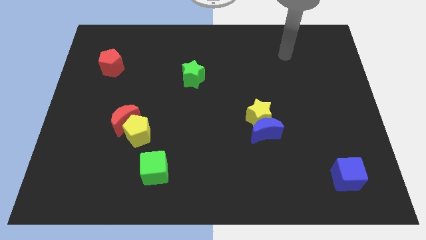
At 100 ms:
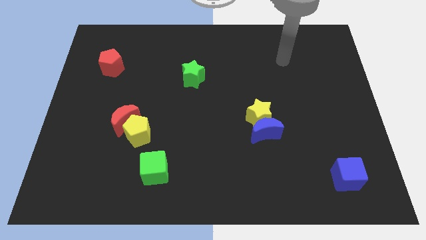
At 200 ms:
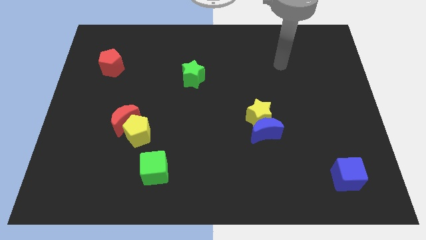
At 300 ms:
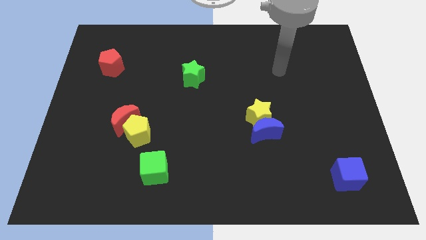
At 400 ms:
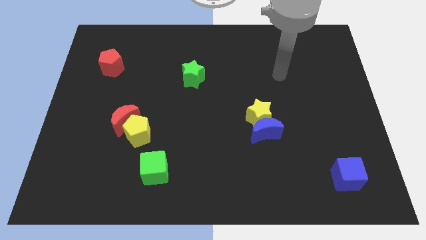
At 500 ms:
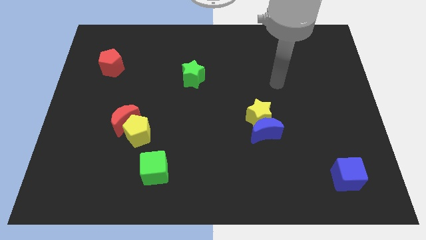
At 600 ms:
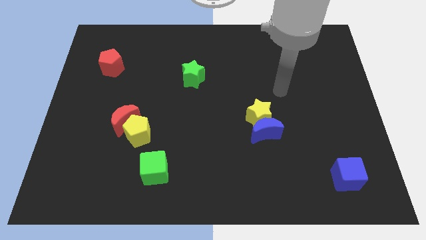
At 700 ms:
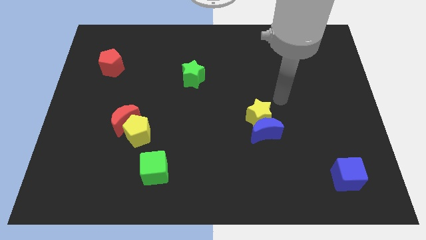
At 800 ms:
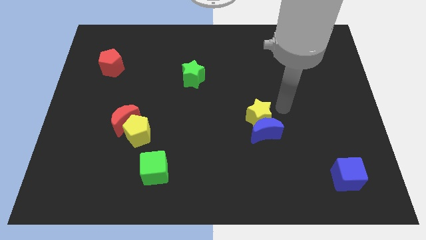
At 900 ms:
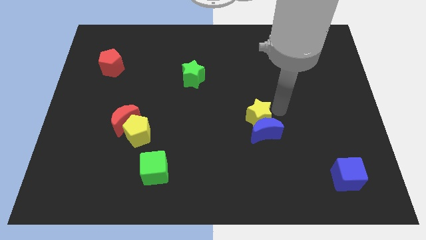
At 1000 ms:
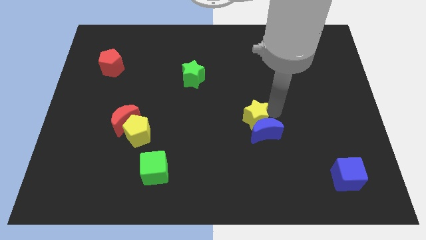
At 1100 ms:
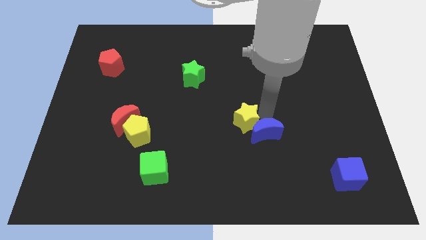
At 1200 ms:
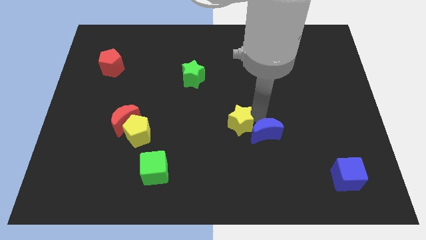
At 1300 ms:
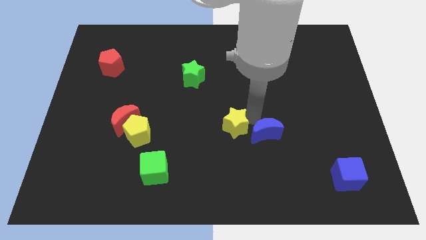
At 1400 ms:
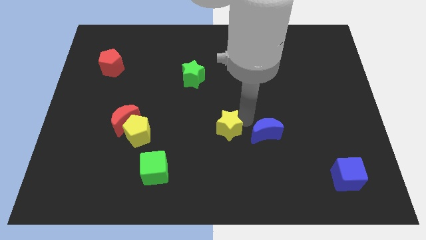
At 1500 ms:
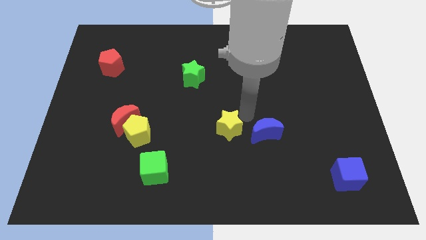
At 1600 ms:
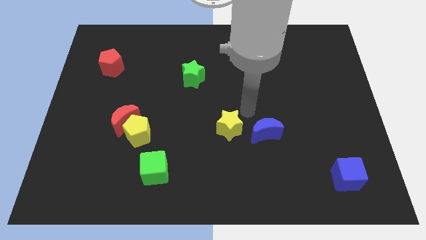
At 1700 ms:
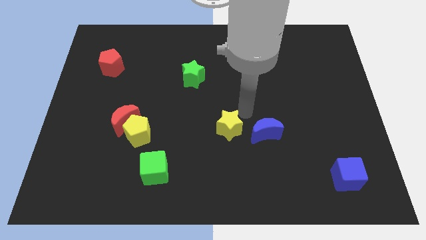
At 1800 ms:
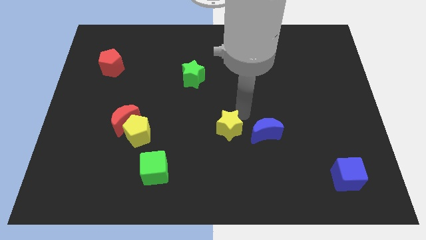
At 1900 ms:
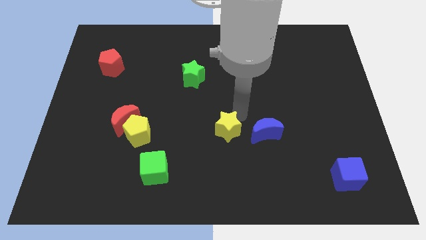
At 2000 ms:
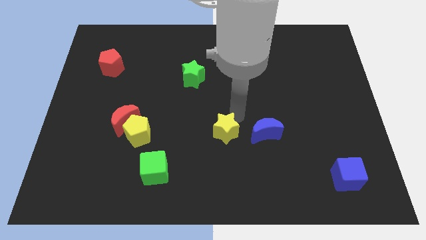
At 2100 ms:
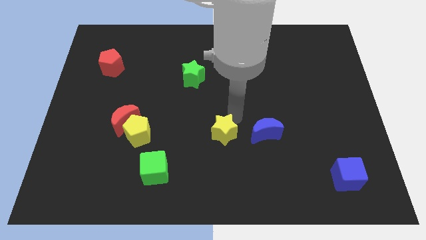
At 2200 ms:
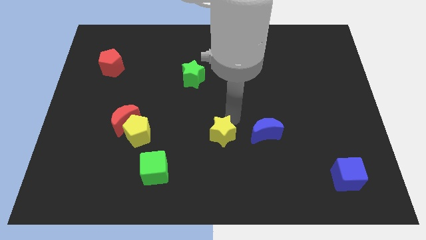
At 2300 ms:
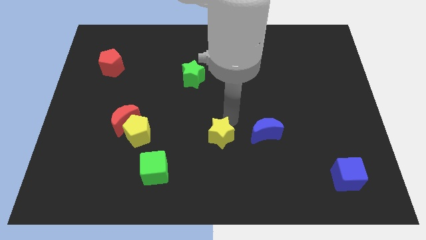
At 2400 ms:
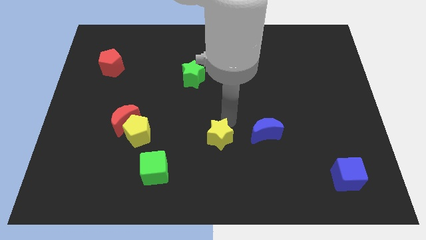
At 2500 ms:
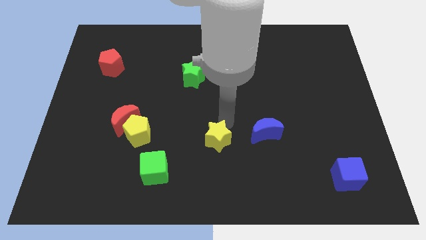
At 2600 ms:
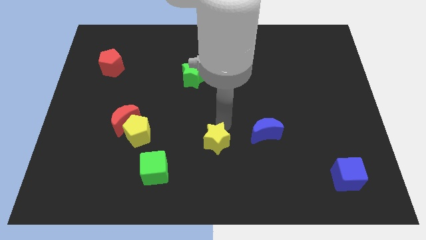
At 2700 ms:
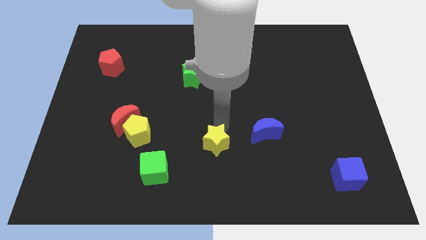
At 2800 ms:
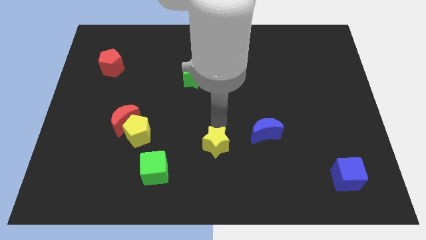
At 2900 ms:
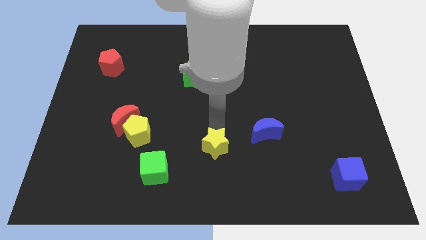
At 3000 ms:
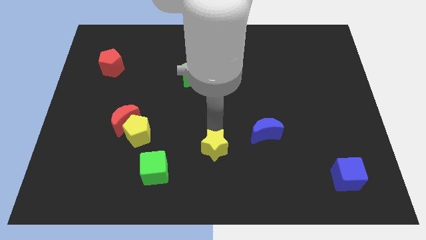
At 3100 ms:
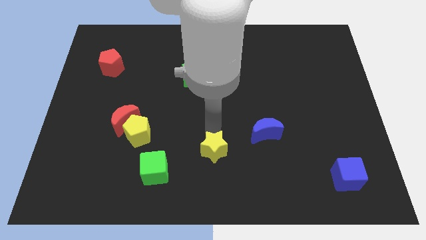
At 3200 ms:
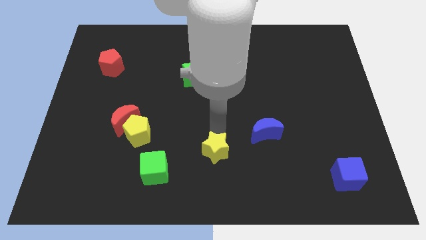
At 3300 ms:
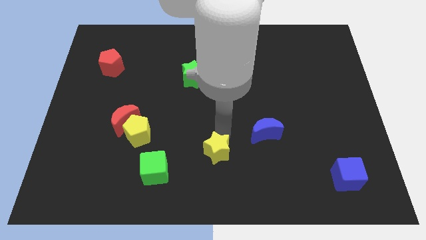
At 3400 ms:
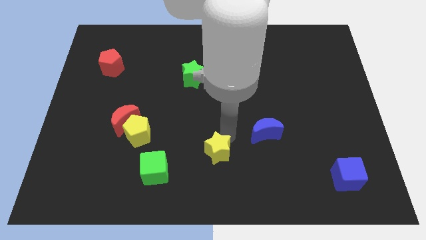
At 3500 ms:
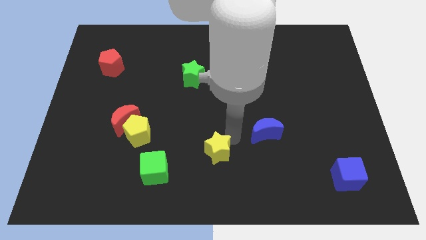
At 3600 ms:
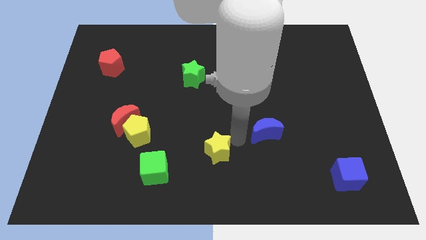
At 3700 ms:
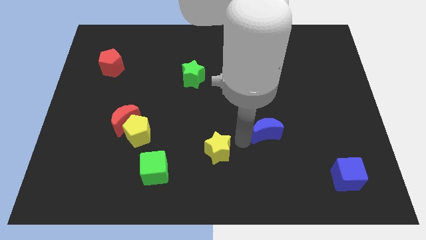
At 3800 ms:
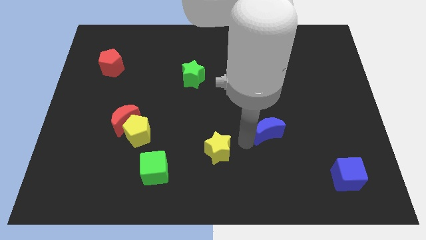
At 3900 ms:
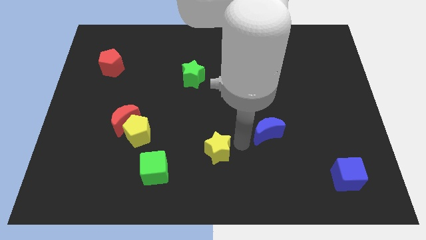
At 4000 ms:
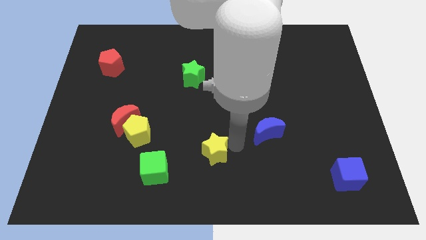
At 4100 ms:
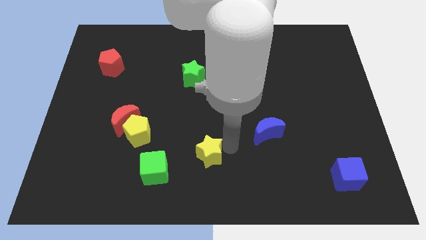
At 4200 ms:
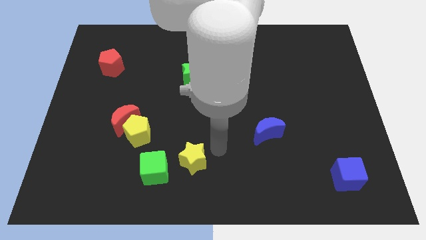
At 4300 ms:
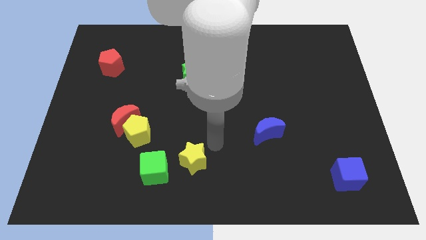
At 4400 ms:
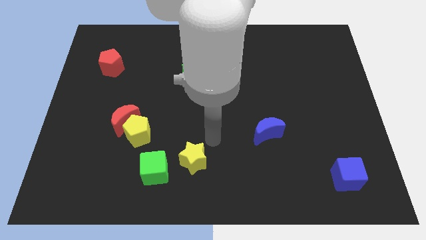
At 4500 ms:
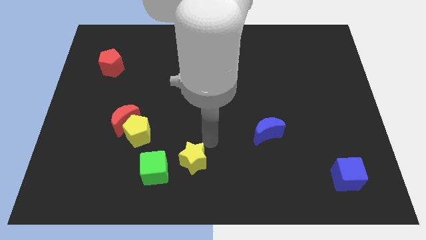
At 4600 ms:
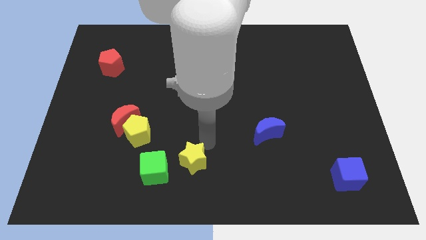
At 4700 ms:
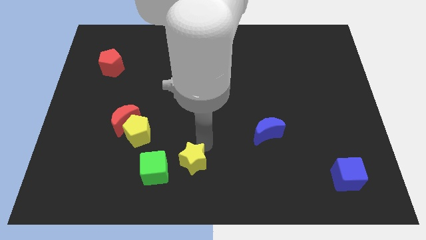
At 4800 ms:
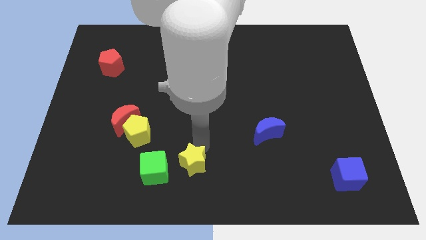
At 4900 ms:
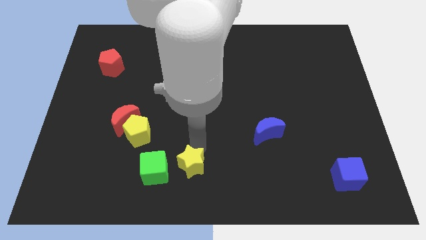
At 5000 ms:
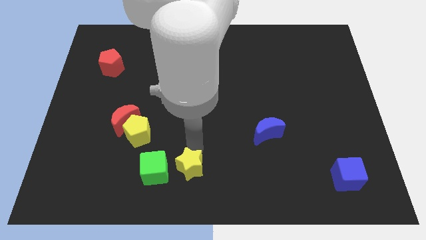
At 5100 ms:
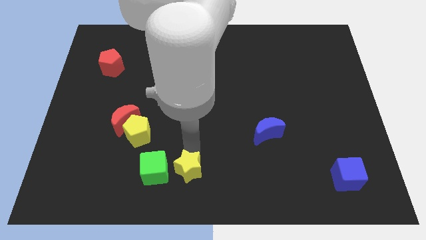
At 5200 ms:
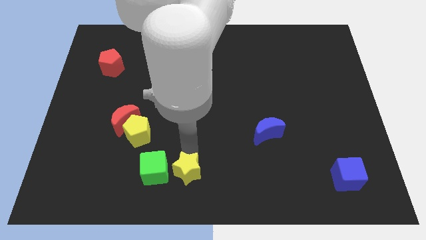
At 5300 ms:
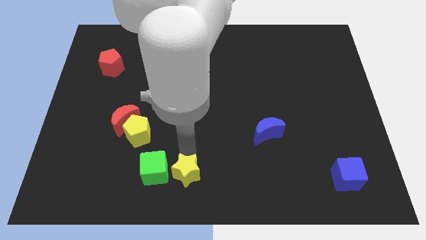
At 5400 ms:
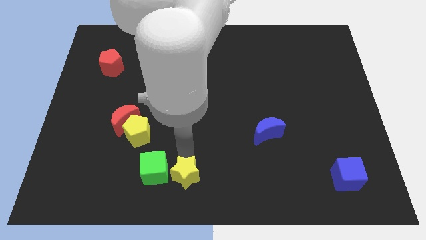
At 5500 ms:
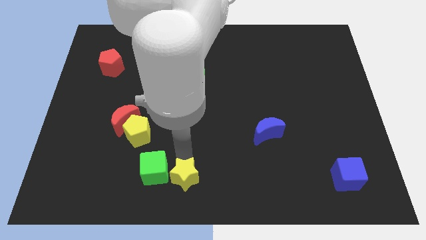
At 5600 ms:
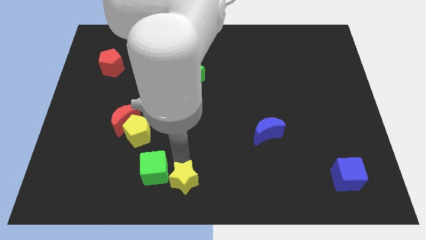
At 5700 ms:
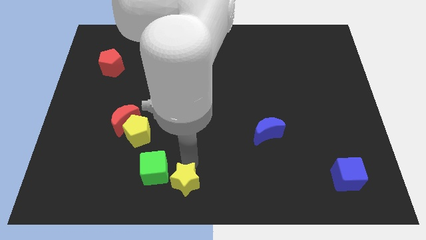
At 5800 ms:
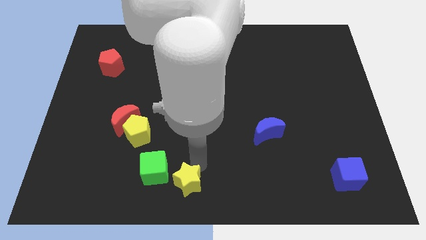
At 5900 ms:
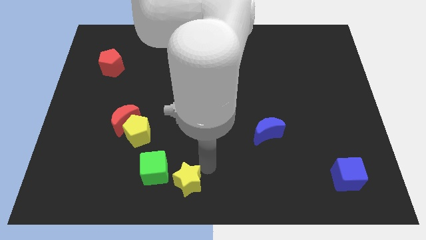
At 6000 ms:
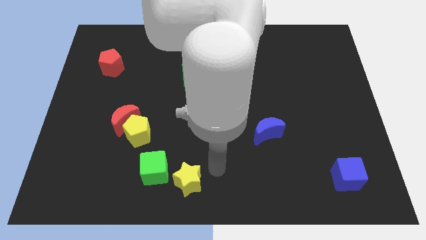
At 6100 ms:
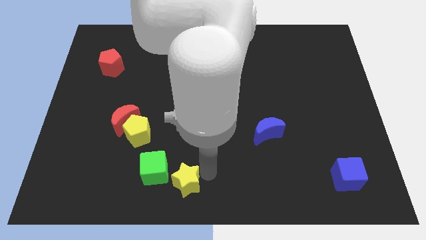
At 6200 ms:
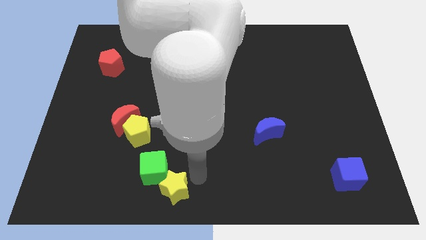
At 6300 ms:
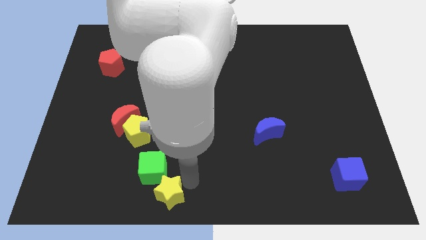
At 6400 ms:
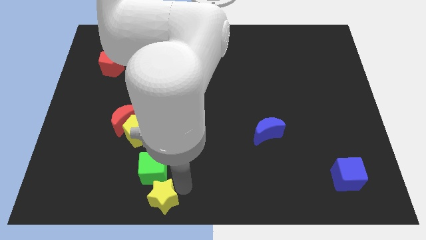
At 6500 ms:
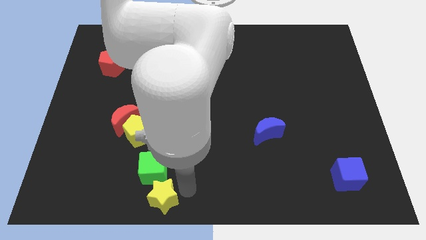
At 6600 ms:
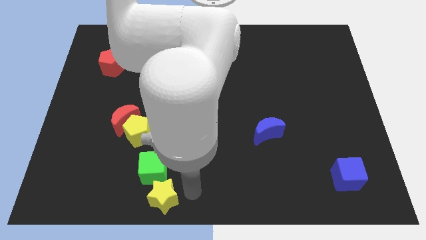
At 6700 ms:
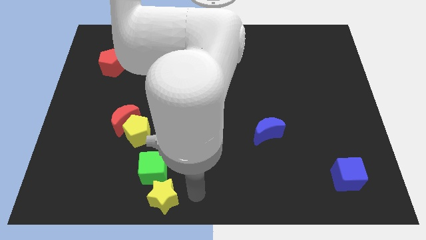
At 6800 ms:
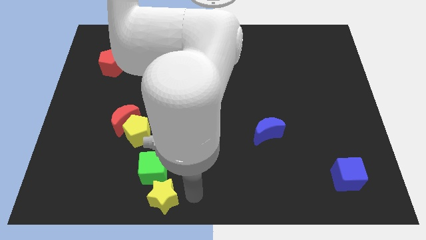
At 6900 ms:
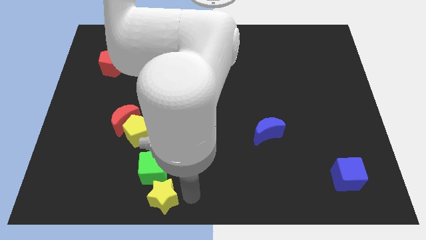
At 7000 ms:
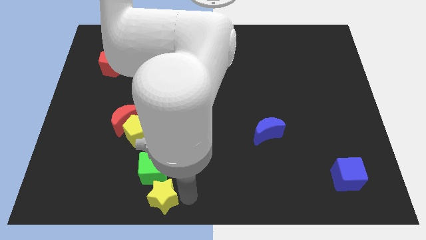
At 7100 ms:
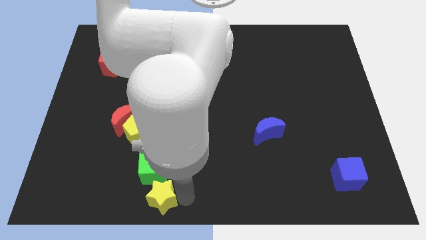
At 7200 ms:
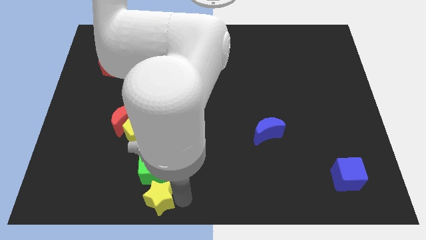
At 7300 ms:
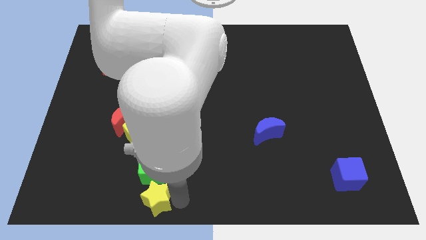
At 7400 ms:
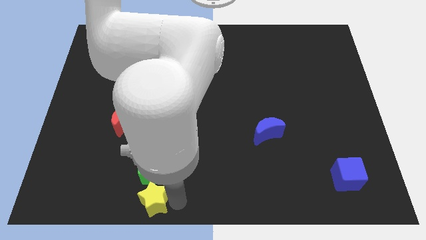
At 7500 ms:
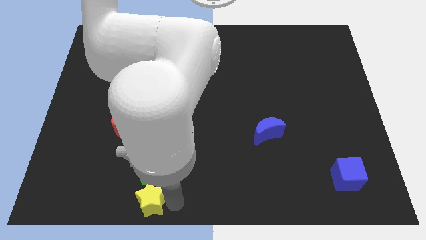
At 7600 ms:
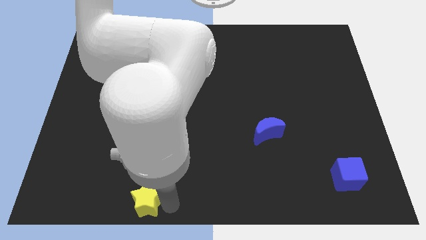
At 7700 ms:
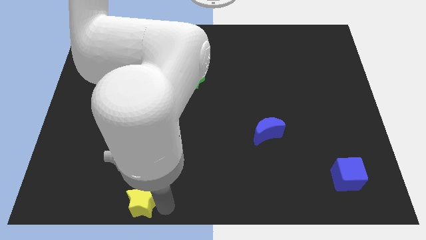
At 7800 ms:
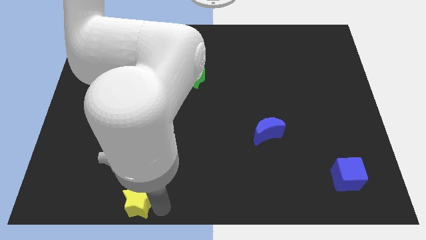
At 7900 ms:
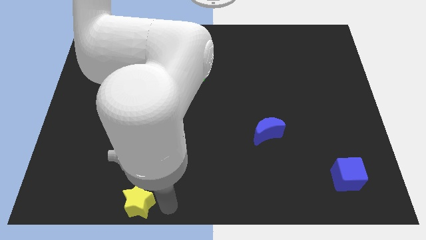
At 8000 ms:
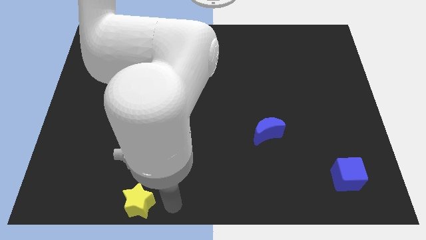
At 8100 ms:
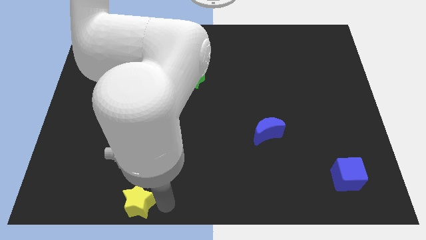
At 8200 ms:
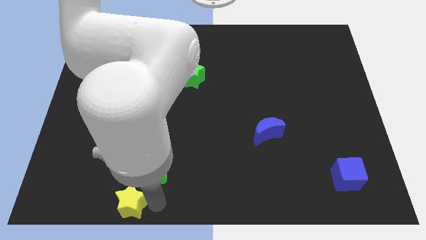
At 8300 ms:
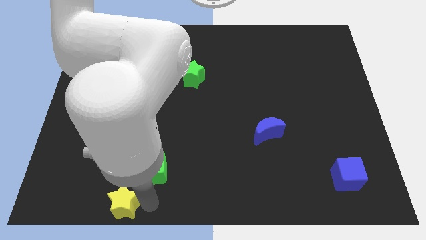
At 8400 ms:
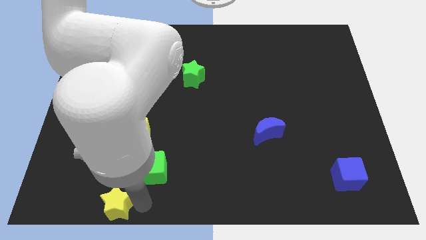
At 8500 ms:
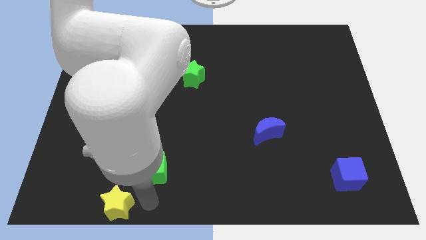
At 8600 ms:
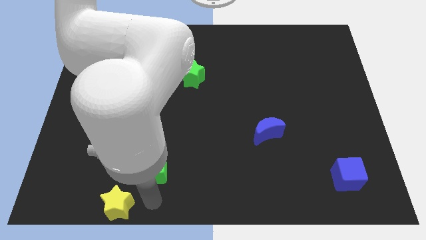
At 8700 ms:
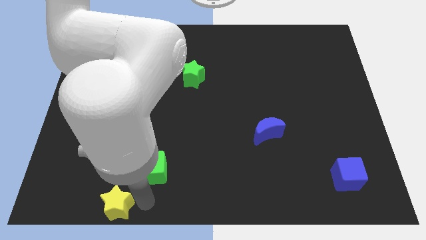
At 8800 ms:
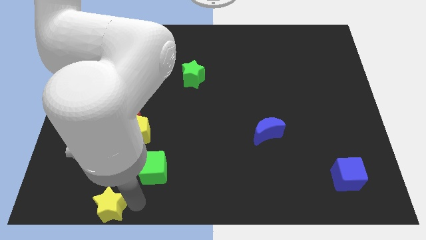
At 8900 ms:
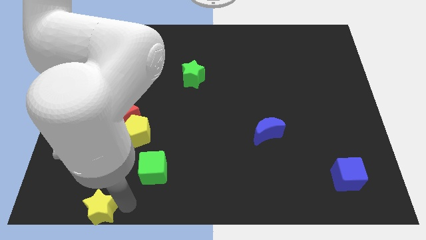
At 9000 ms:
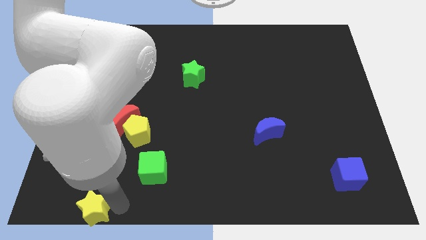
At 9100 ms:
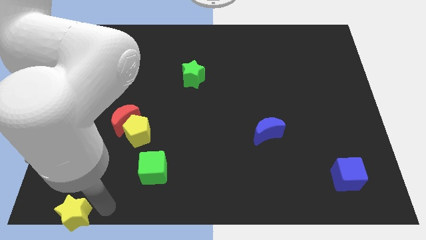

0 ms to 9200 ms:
push the yellow star to the lower left corner
